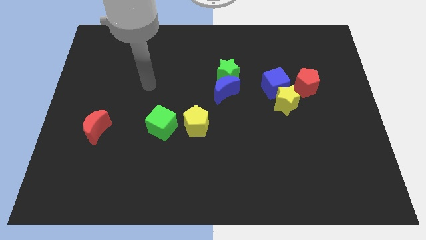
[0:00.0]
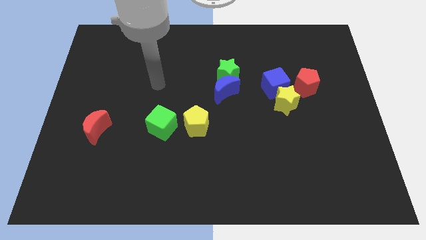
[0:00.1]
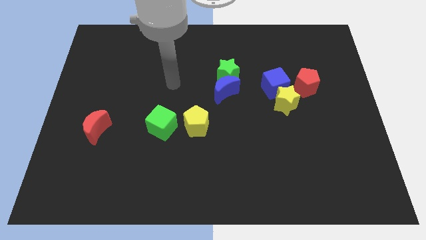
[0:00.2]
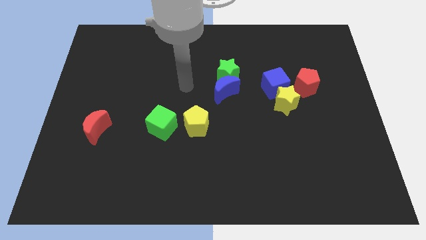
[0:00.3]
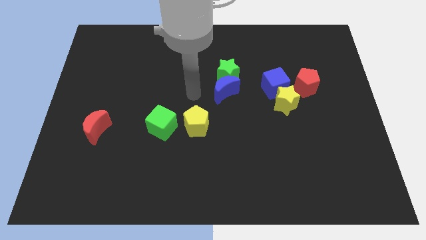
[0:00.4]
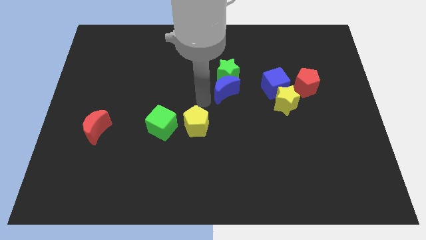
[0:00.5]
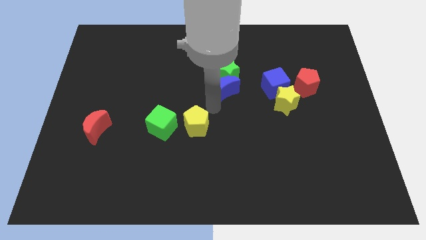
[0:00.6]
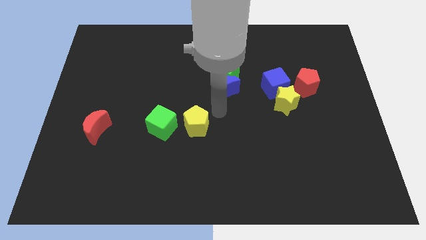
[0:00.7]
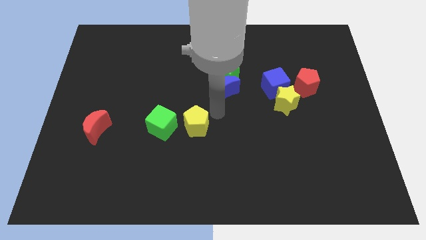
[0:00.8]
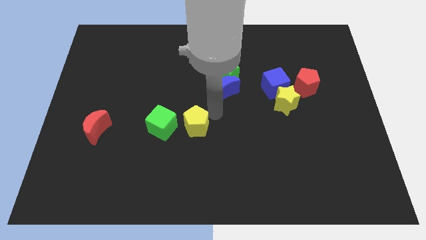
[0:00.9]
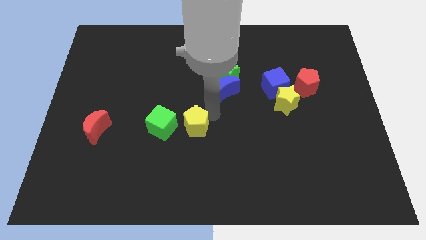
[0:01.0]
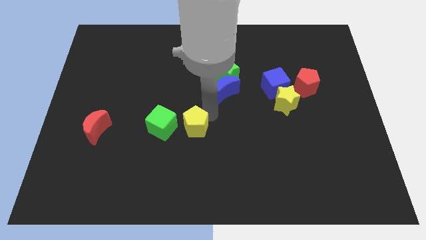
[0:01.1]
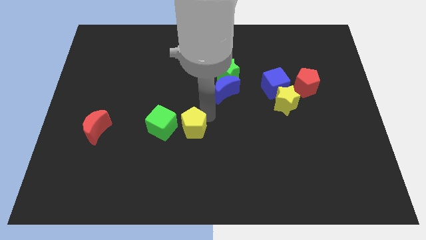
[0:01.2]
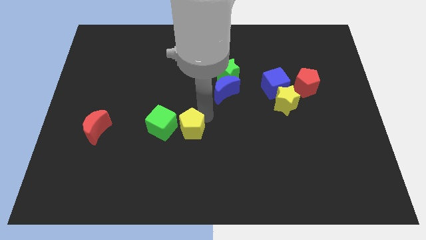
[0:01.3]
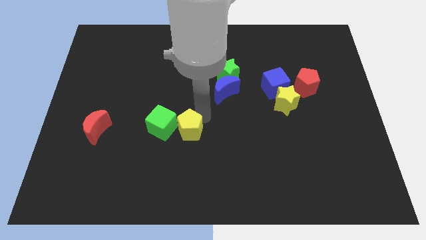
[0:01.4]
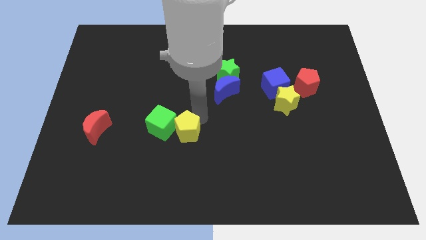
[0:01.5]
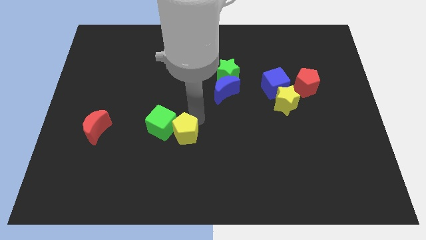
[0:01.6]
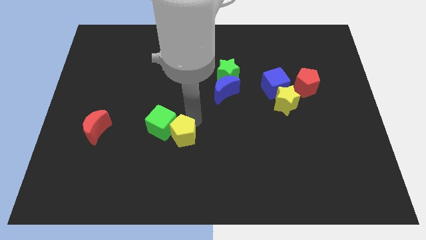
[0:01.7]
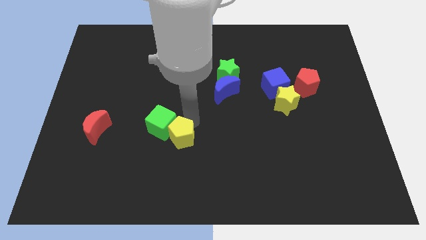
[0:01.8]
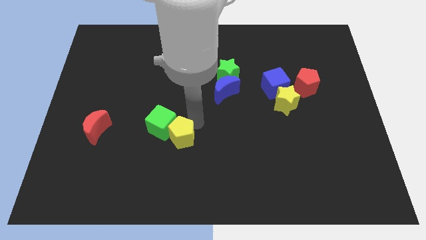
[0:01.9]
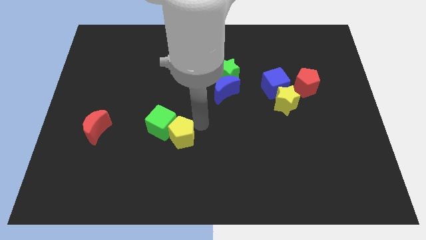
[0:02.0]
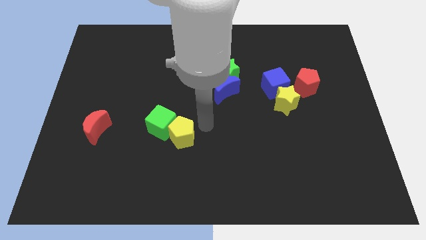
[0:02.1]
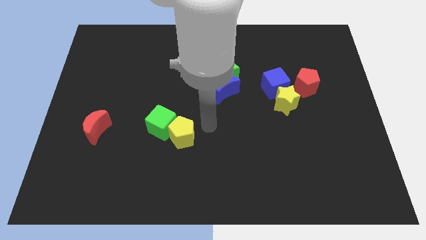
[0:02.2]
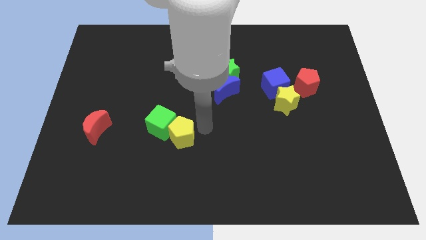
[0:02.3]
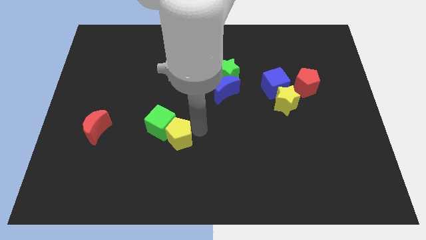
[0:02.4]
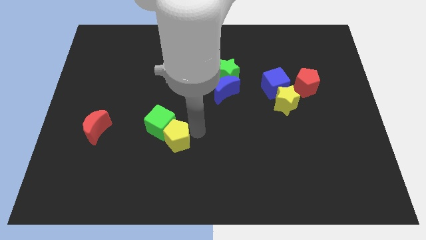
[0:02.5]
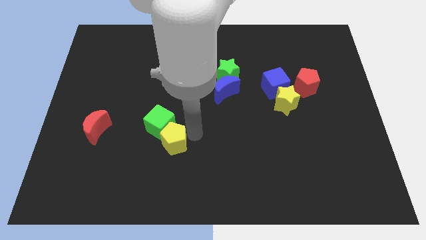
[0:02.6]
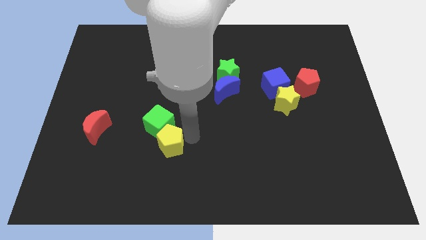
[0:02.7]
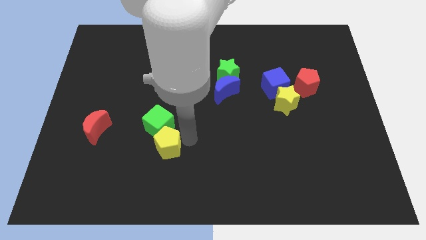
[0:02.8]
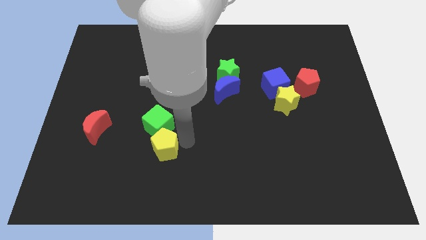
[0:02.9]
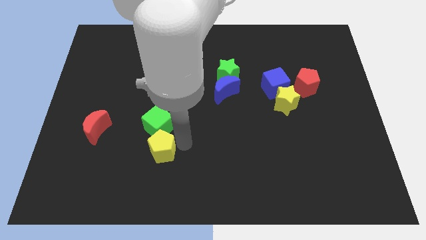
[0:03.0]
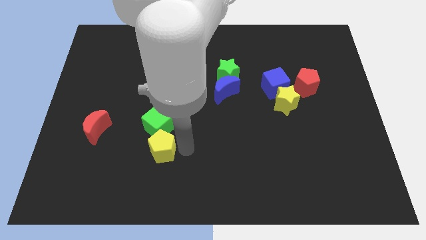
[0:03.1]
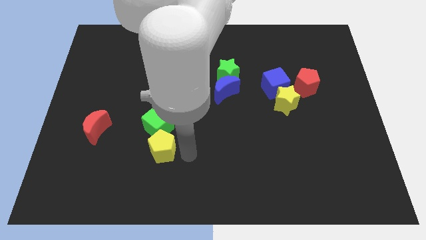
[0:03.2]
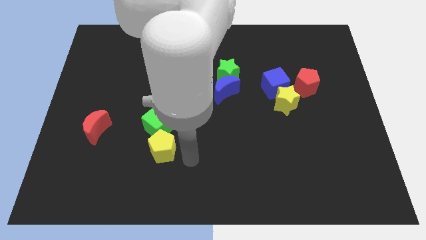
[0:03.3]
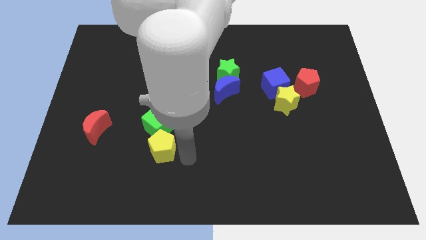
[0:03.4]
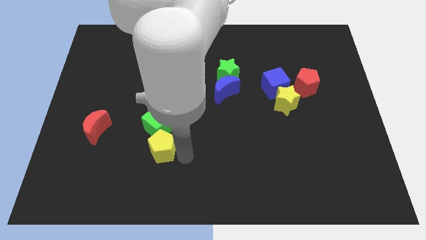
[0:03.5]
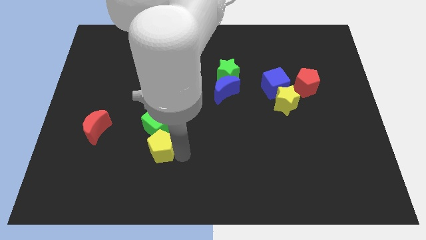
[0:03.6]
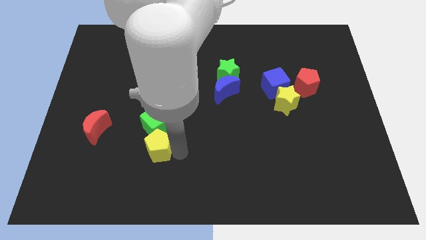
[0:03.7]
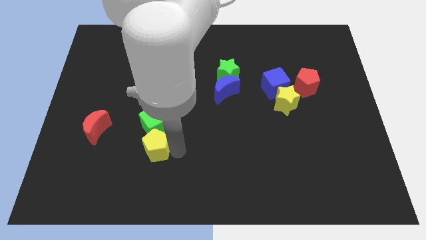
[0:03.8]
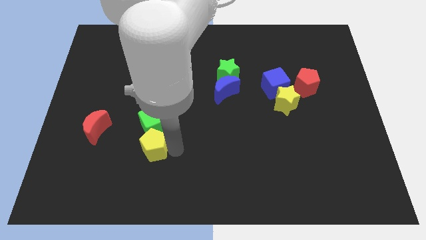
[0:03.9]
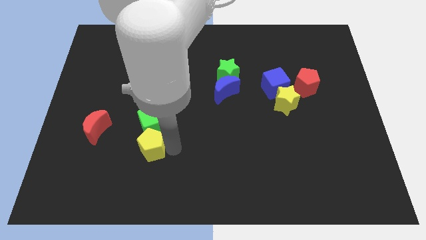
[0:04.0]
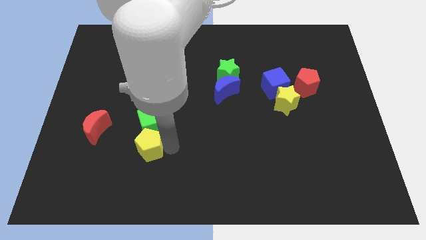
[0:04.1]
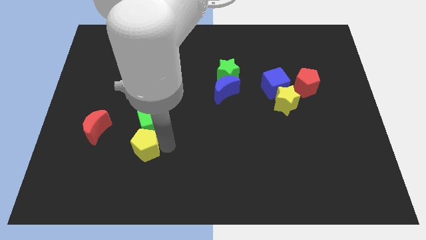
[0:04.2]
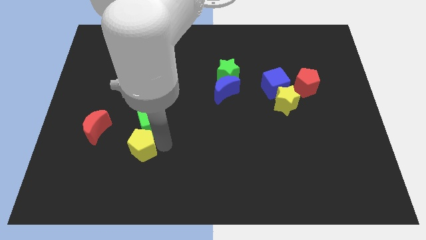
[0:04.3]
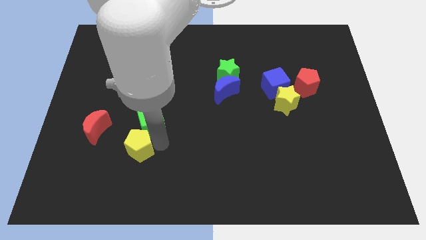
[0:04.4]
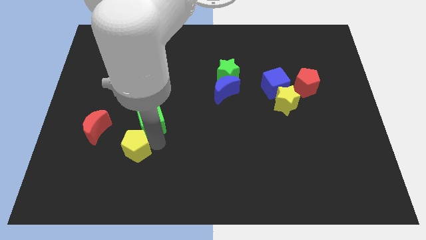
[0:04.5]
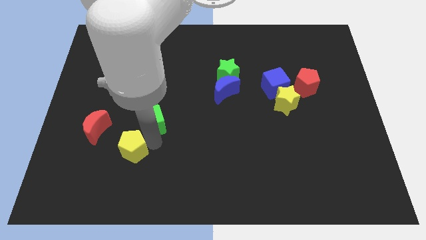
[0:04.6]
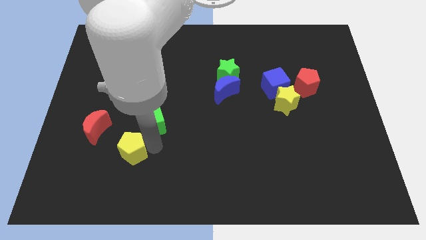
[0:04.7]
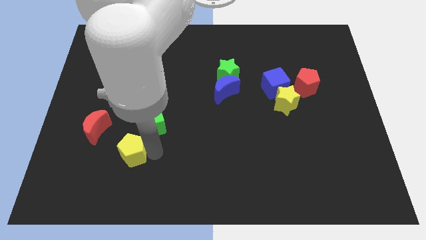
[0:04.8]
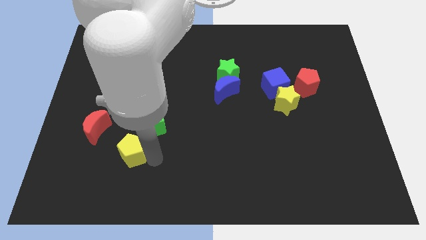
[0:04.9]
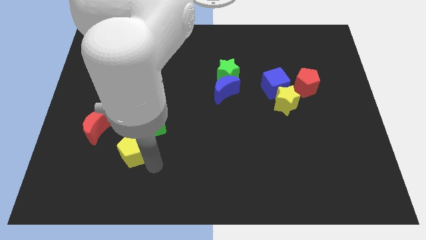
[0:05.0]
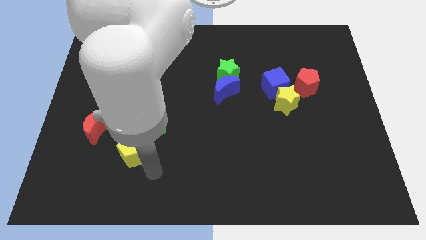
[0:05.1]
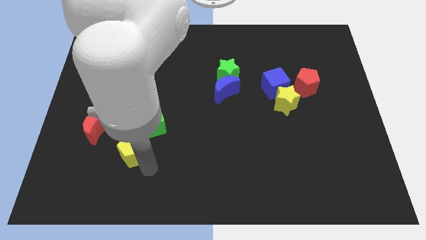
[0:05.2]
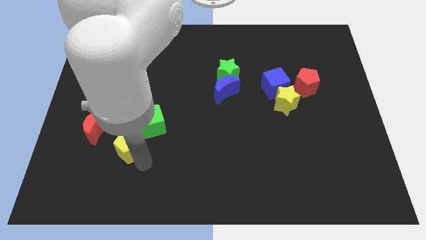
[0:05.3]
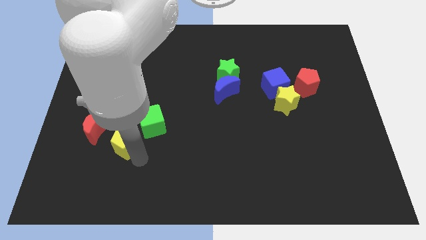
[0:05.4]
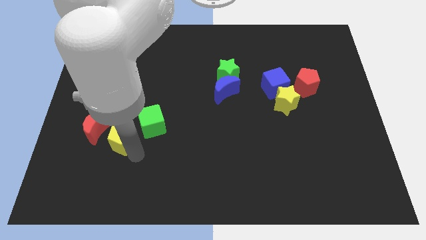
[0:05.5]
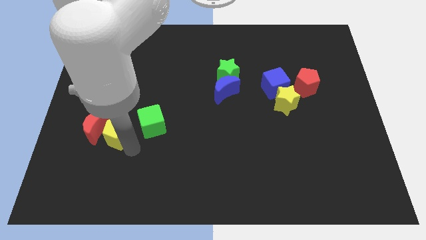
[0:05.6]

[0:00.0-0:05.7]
push the yellow pentagon next to the red moon

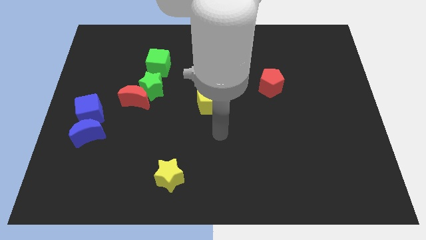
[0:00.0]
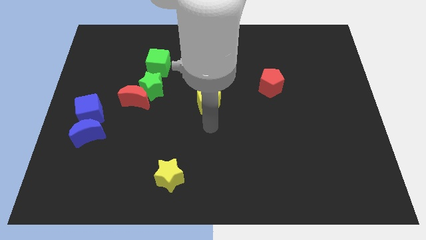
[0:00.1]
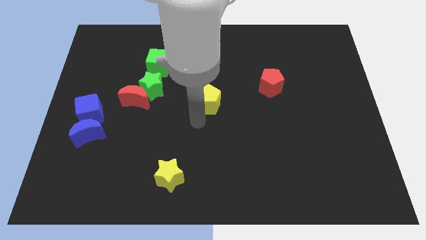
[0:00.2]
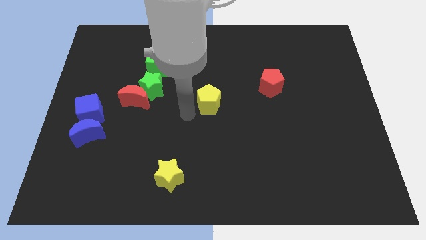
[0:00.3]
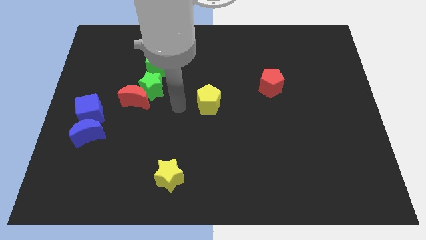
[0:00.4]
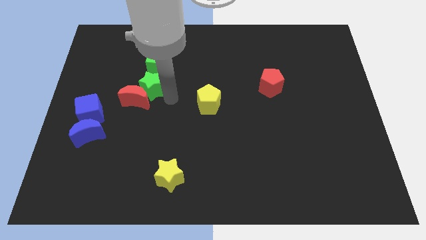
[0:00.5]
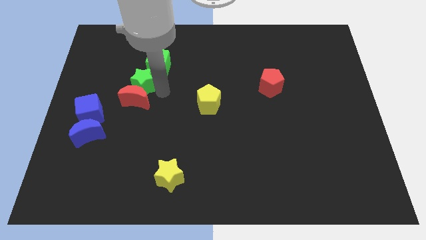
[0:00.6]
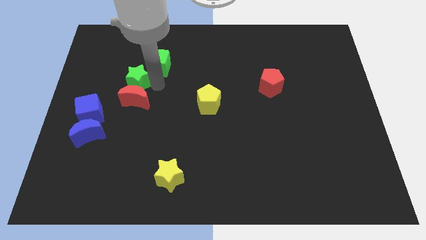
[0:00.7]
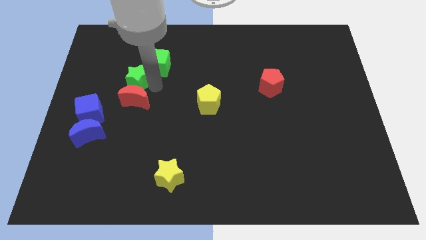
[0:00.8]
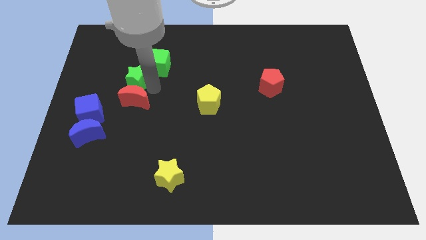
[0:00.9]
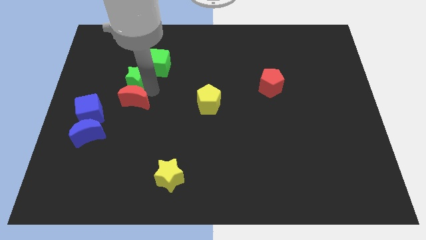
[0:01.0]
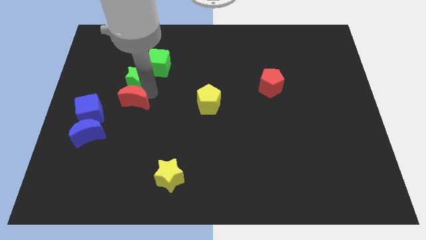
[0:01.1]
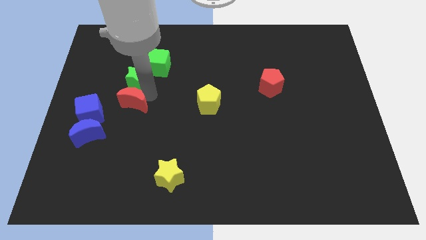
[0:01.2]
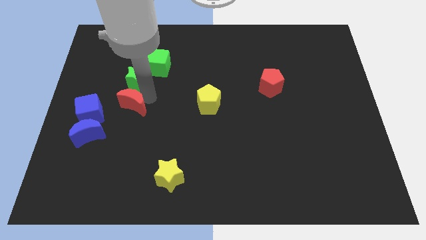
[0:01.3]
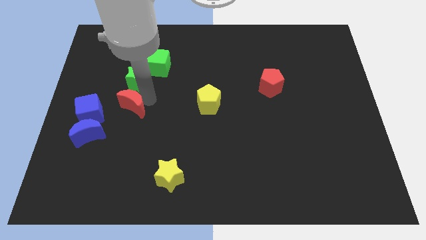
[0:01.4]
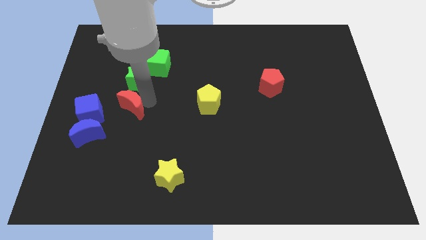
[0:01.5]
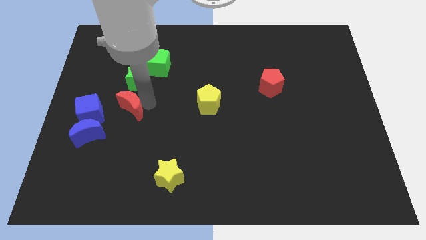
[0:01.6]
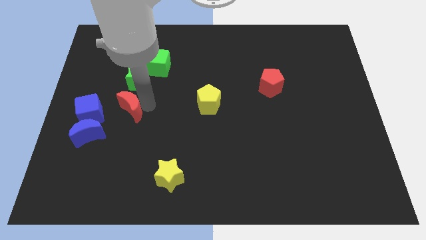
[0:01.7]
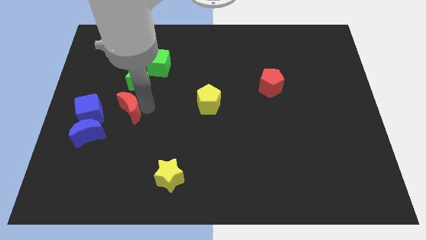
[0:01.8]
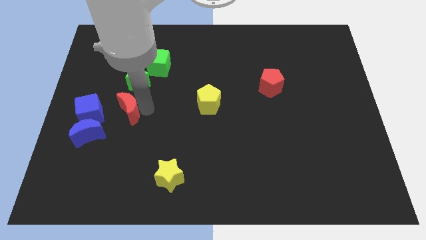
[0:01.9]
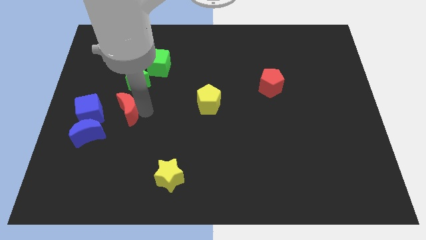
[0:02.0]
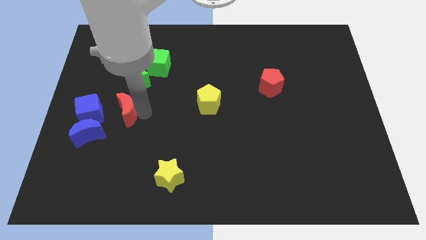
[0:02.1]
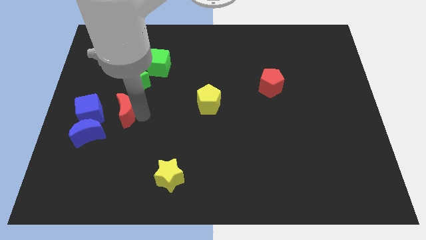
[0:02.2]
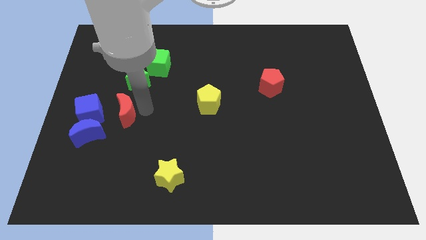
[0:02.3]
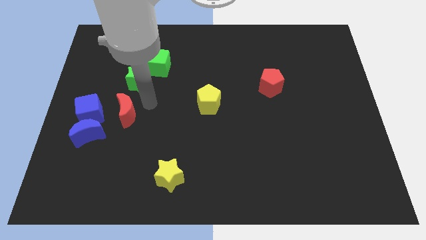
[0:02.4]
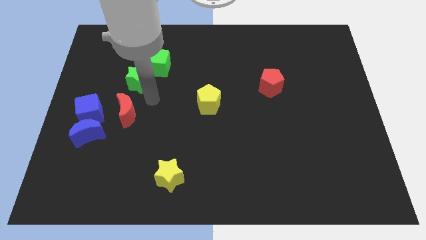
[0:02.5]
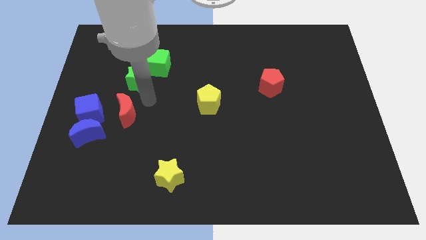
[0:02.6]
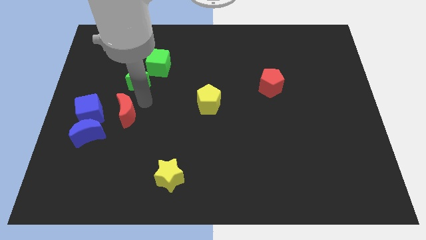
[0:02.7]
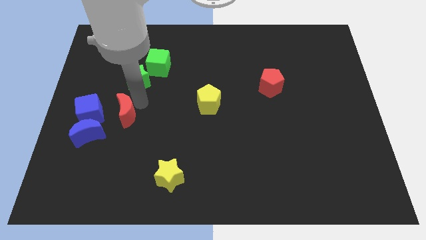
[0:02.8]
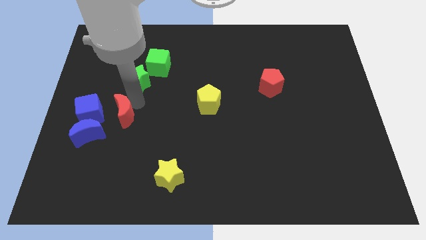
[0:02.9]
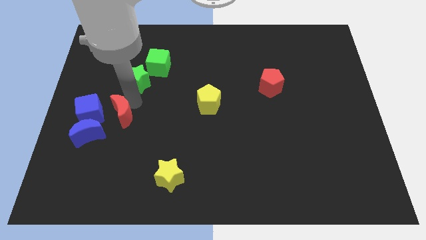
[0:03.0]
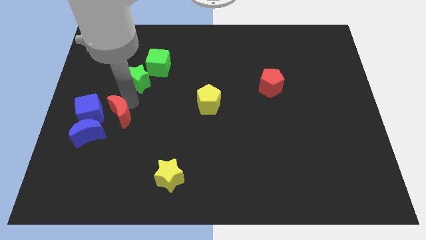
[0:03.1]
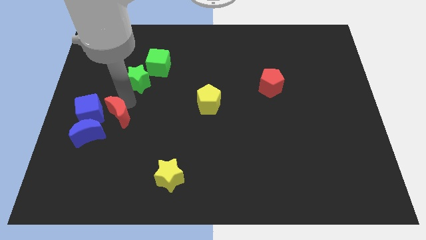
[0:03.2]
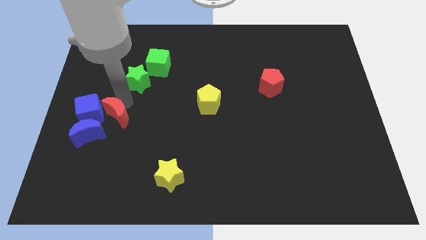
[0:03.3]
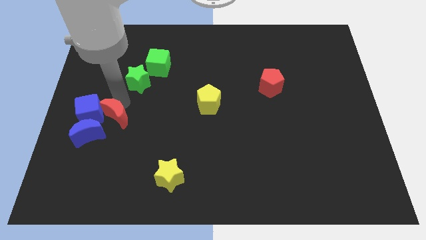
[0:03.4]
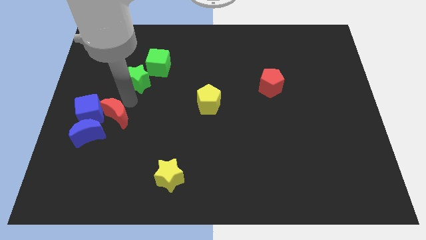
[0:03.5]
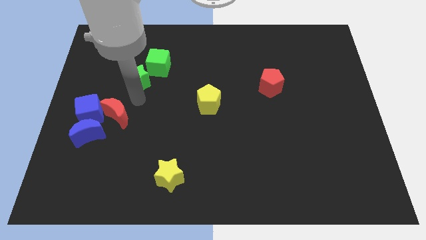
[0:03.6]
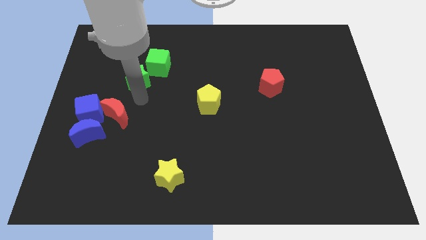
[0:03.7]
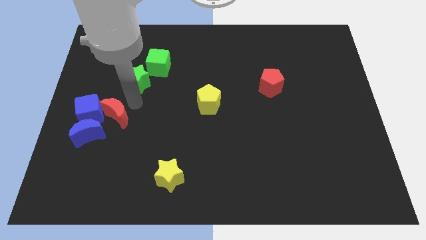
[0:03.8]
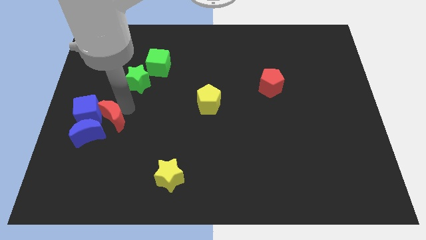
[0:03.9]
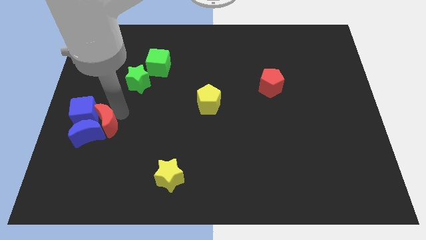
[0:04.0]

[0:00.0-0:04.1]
push the red moon to the blue moon
